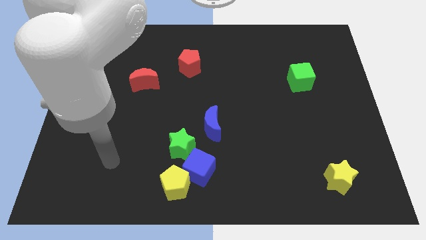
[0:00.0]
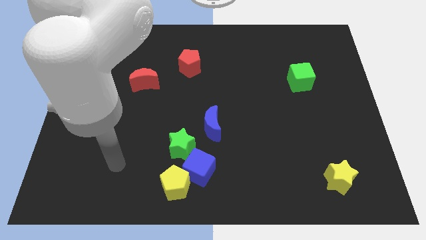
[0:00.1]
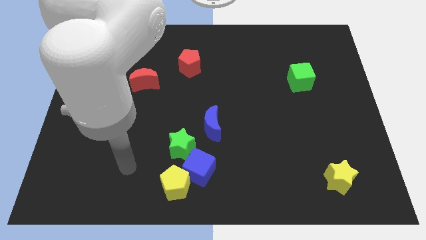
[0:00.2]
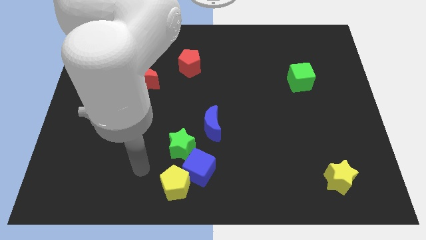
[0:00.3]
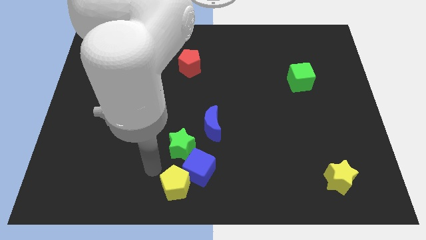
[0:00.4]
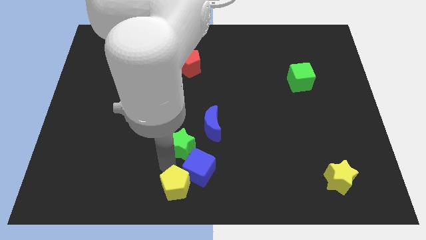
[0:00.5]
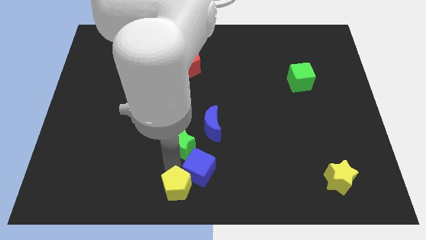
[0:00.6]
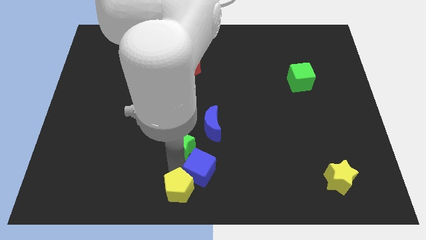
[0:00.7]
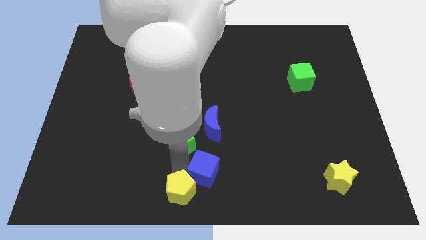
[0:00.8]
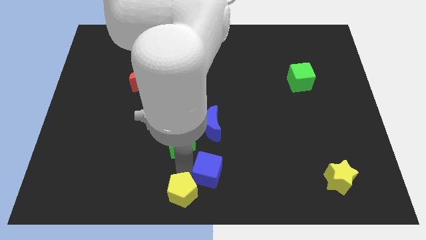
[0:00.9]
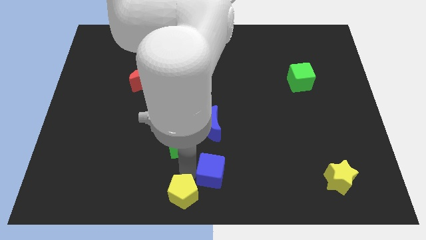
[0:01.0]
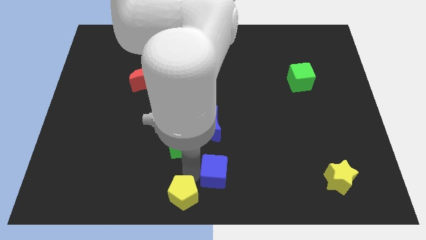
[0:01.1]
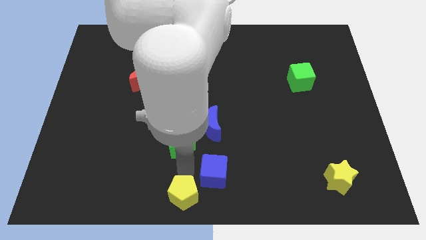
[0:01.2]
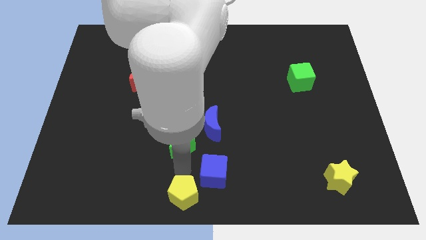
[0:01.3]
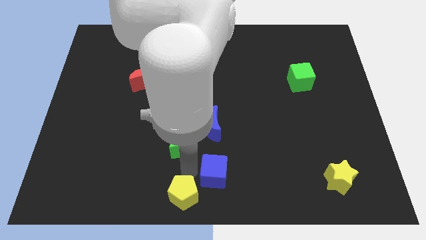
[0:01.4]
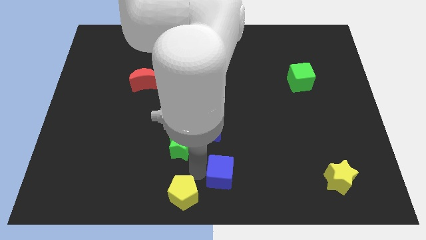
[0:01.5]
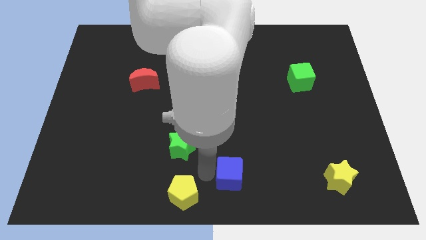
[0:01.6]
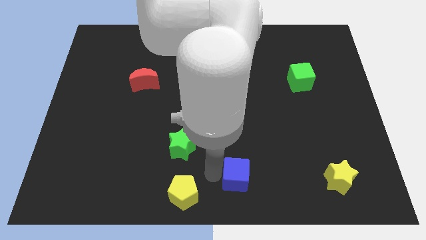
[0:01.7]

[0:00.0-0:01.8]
separate the blue cube from the yellow pentagon and green star

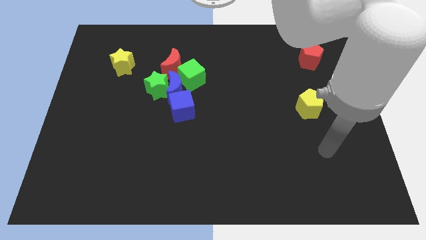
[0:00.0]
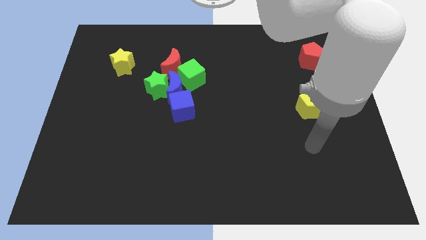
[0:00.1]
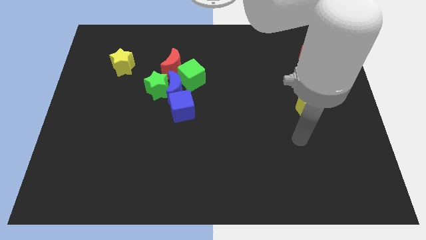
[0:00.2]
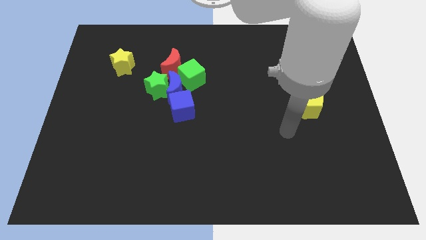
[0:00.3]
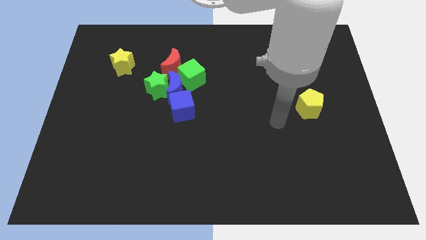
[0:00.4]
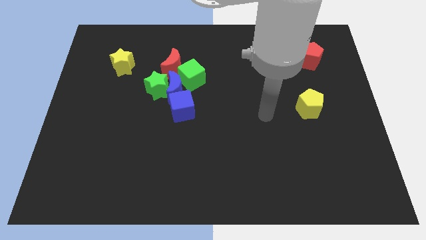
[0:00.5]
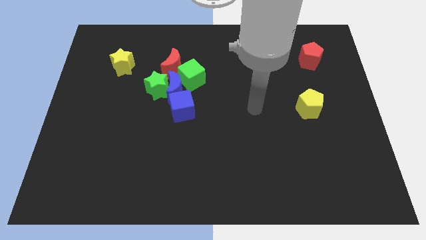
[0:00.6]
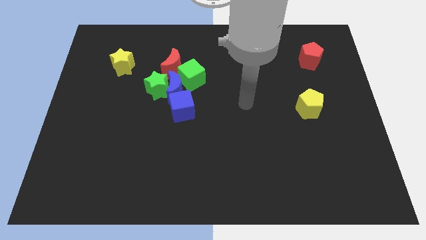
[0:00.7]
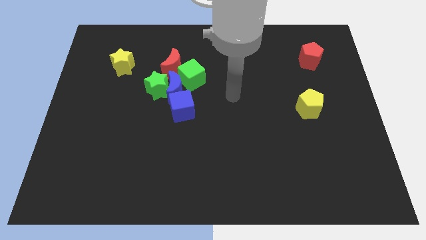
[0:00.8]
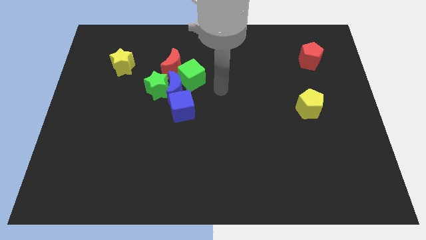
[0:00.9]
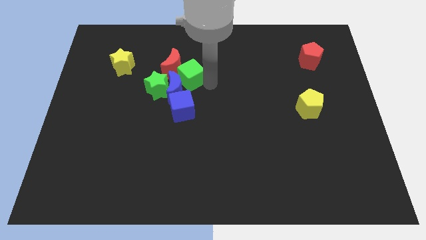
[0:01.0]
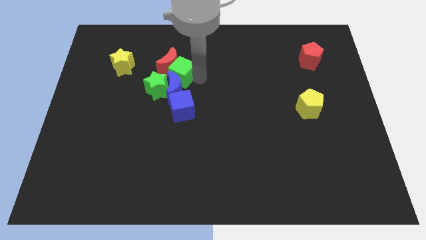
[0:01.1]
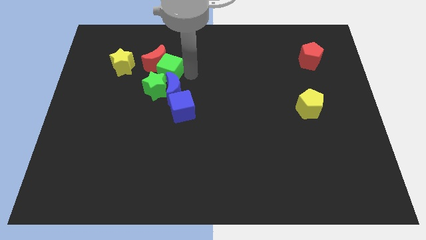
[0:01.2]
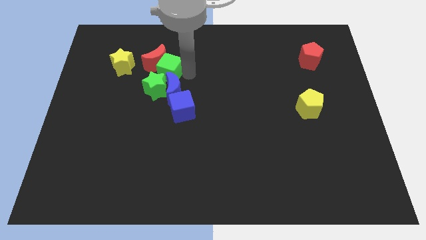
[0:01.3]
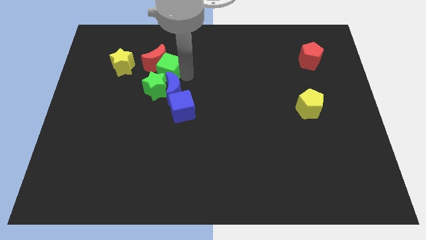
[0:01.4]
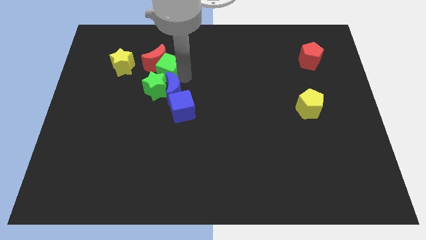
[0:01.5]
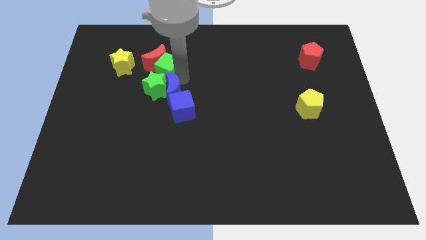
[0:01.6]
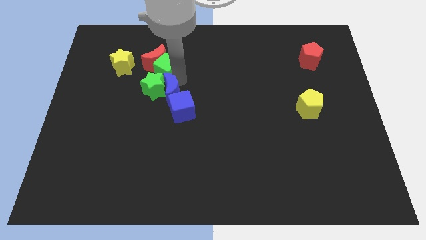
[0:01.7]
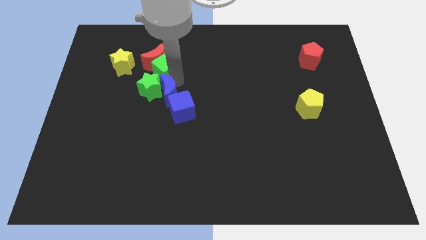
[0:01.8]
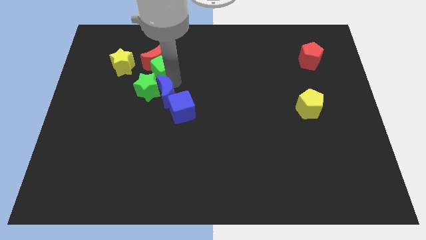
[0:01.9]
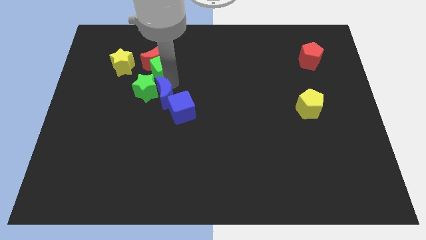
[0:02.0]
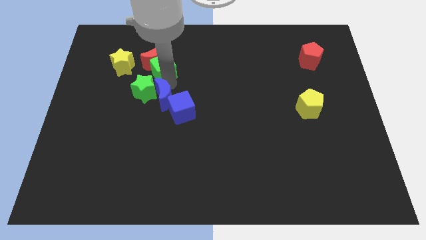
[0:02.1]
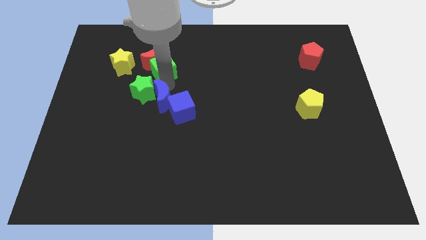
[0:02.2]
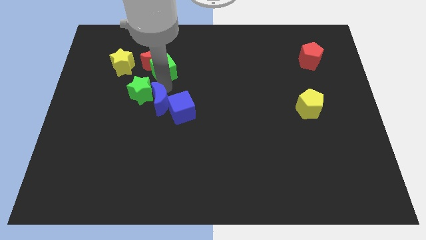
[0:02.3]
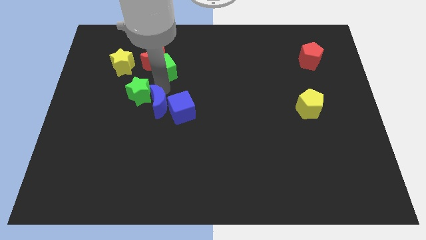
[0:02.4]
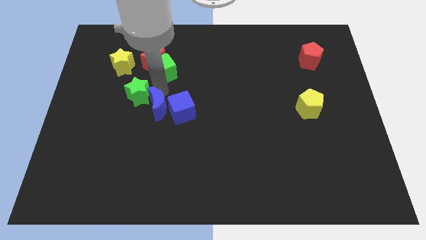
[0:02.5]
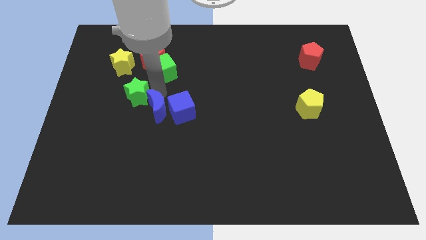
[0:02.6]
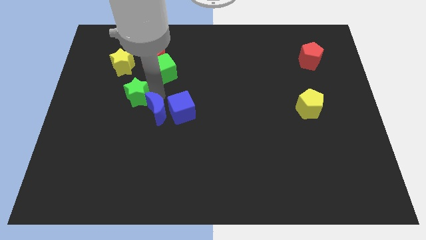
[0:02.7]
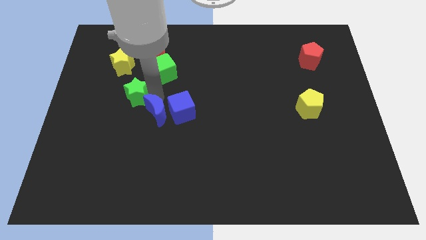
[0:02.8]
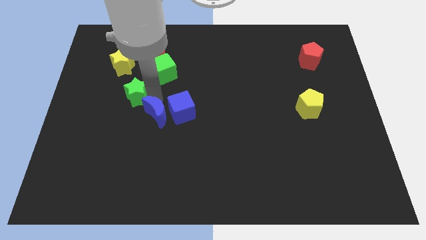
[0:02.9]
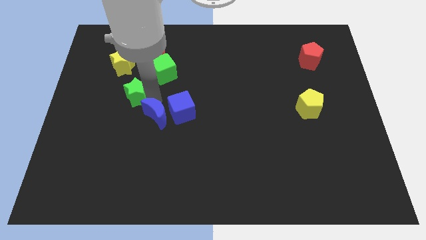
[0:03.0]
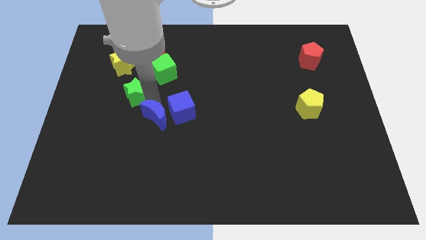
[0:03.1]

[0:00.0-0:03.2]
move the blue moon away from the clump

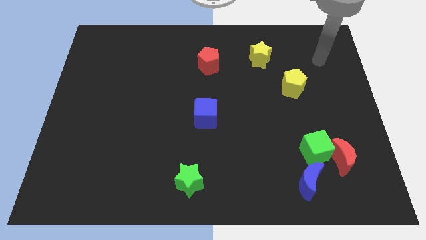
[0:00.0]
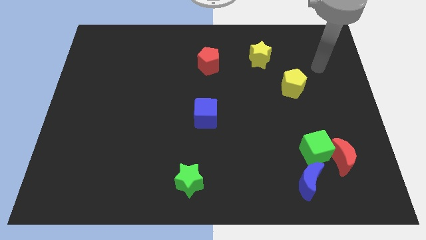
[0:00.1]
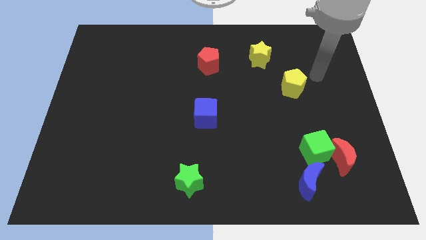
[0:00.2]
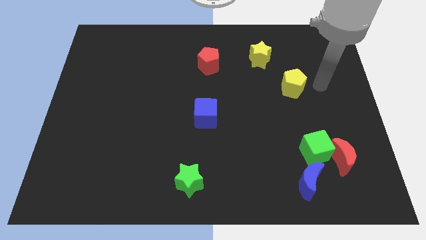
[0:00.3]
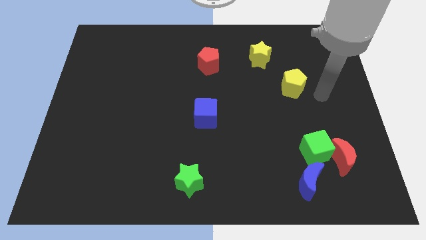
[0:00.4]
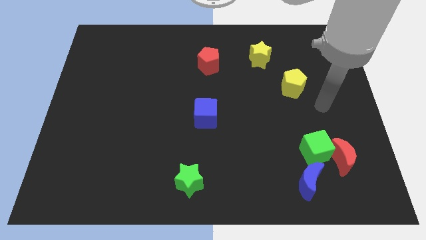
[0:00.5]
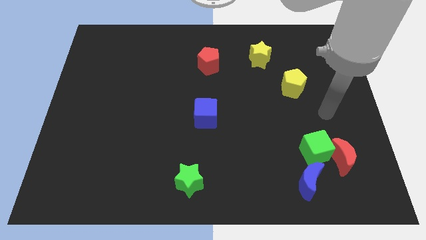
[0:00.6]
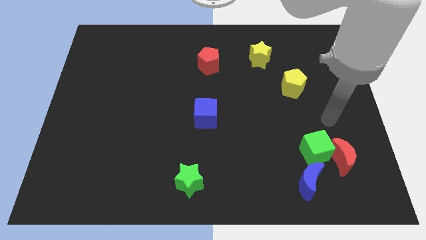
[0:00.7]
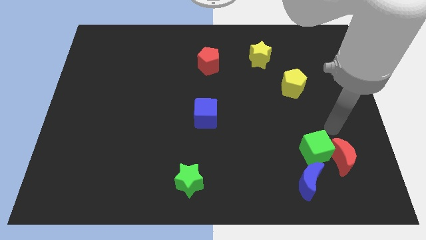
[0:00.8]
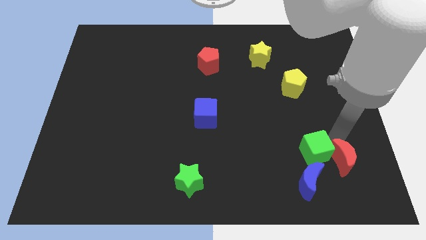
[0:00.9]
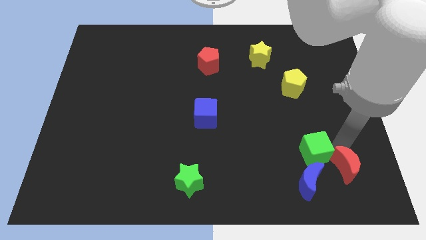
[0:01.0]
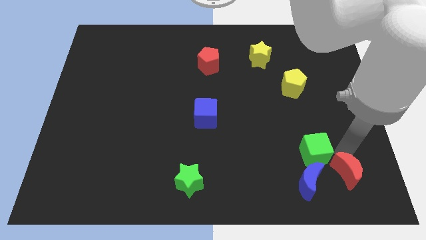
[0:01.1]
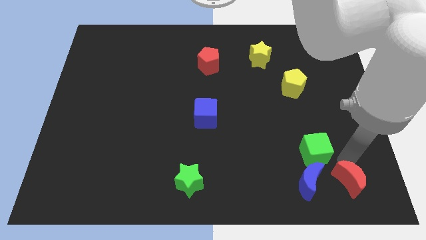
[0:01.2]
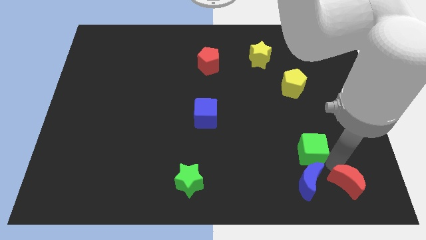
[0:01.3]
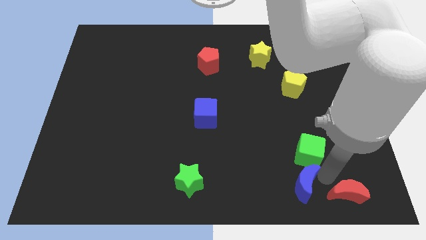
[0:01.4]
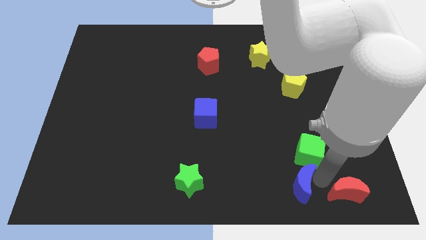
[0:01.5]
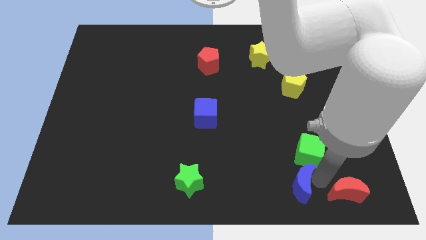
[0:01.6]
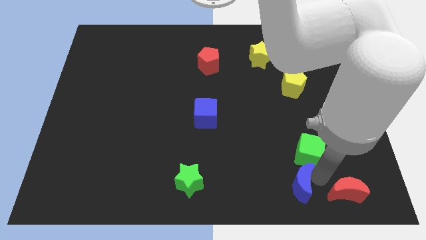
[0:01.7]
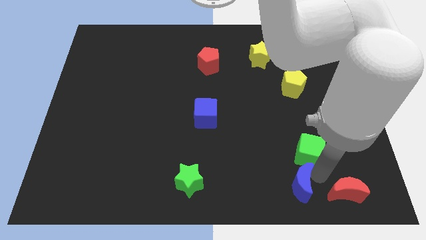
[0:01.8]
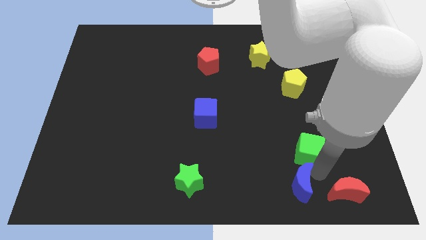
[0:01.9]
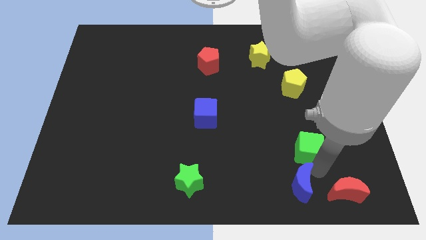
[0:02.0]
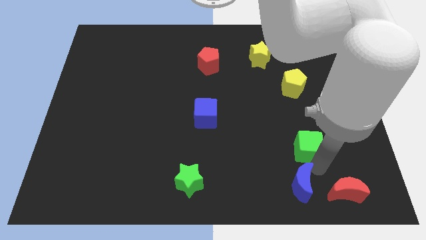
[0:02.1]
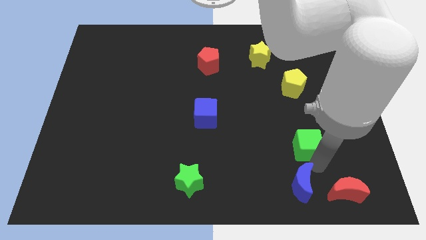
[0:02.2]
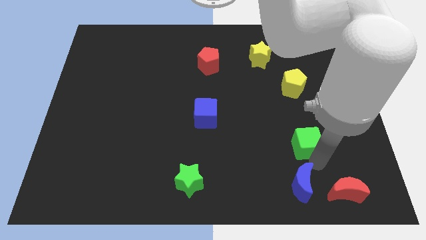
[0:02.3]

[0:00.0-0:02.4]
separate the green cube from the red moon and blue moon

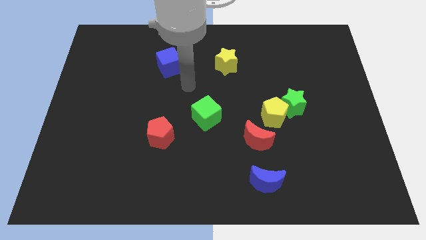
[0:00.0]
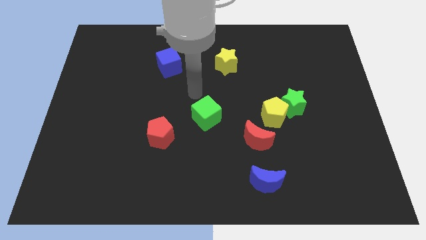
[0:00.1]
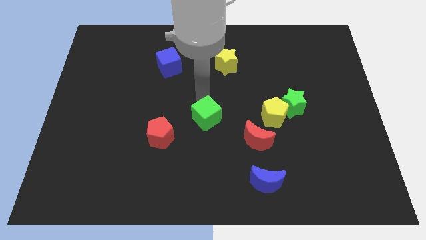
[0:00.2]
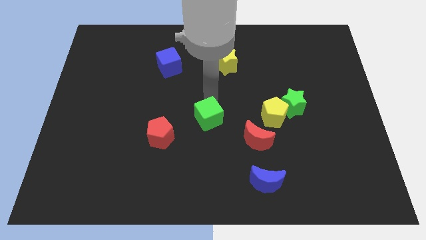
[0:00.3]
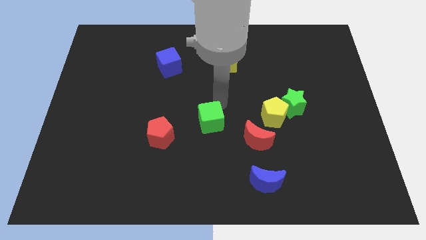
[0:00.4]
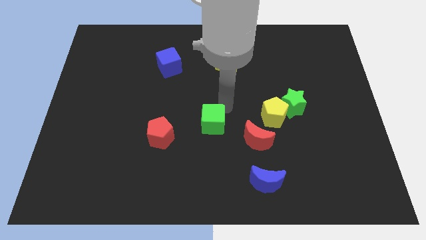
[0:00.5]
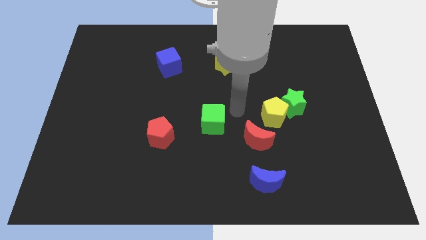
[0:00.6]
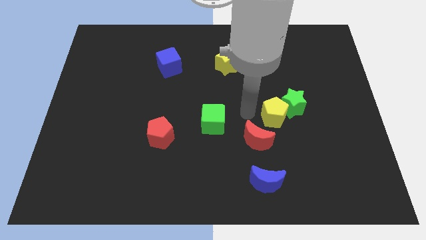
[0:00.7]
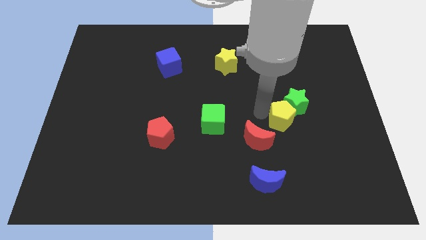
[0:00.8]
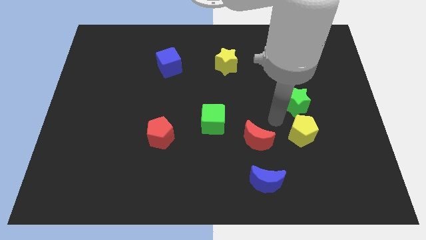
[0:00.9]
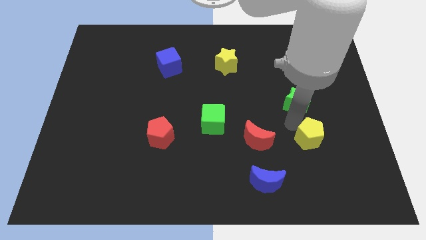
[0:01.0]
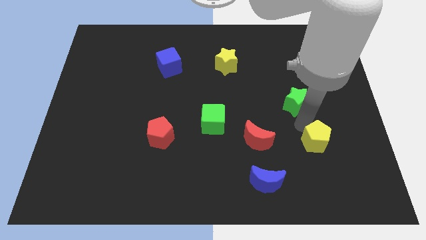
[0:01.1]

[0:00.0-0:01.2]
pull the green star apart from the yellow pentagon

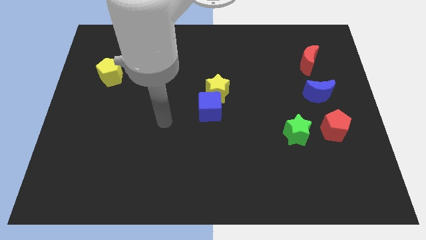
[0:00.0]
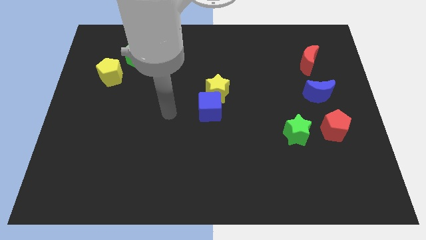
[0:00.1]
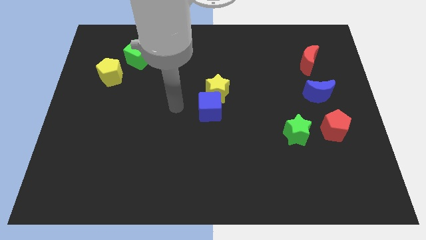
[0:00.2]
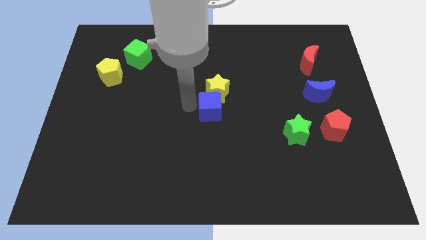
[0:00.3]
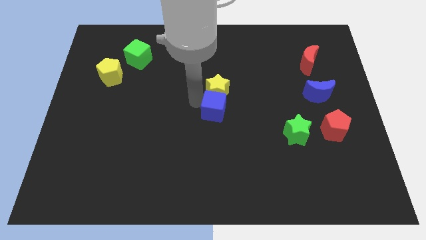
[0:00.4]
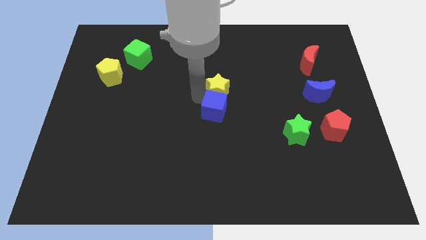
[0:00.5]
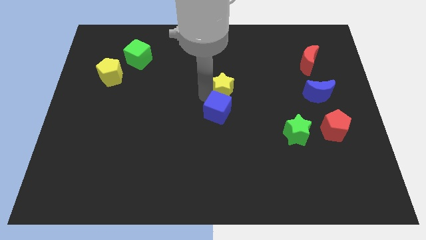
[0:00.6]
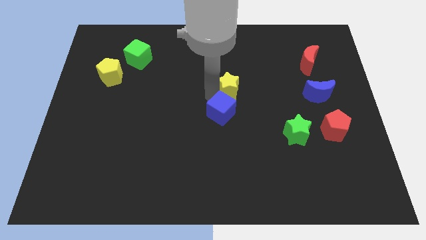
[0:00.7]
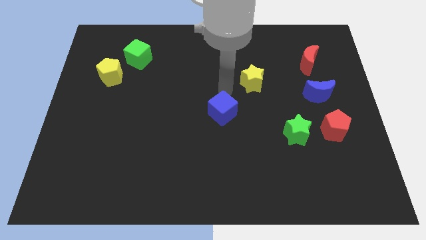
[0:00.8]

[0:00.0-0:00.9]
pull the blue cube apart from the yellow star

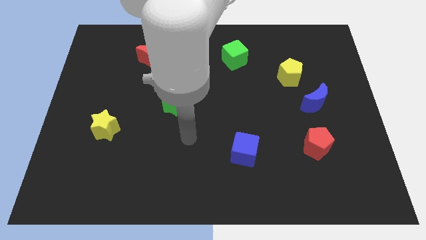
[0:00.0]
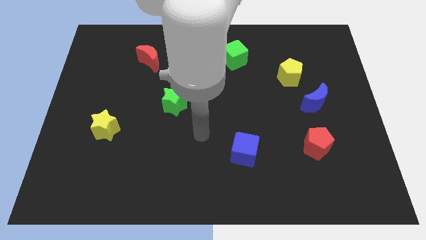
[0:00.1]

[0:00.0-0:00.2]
move the blue moon away from the yellow pentagon
